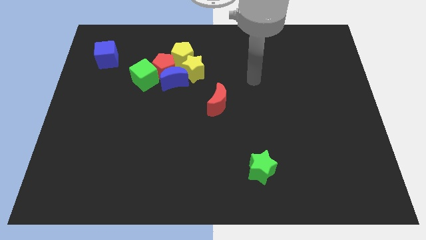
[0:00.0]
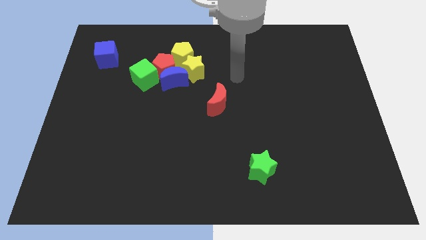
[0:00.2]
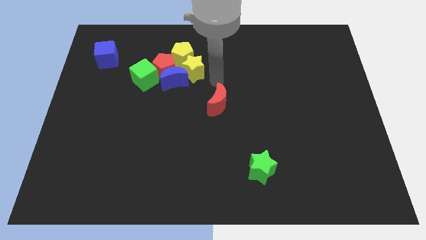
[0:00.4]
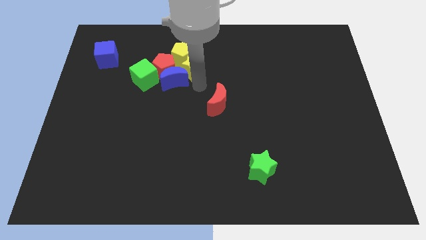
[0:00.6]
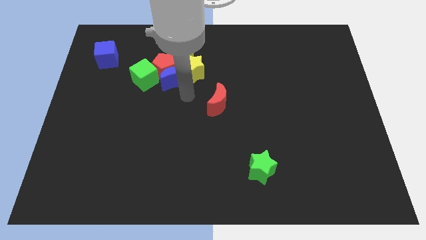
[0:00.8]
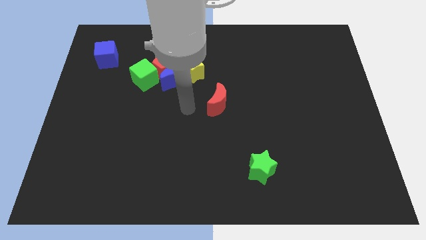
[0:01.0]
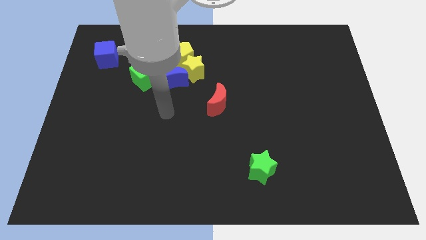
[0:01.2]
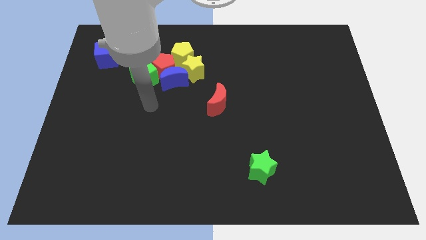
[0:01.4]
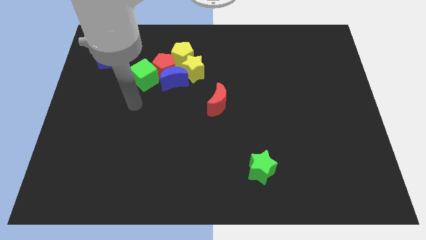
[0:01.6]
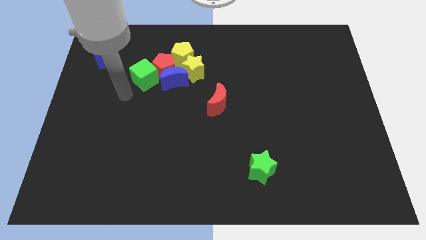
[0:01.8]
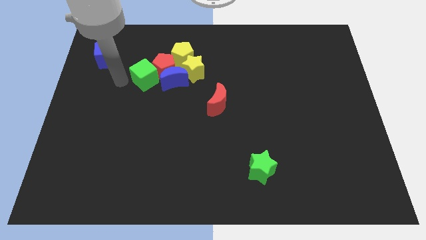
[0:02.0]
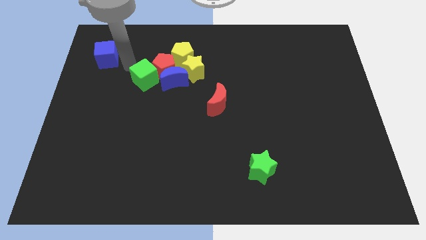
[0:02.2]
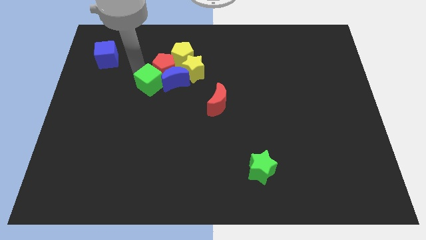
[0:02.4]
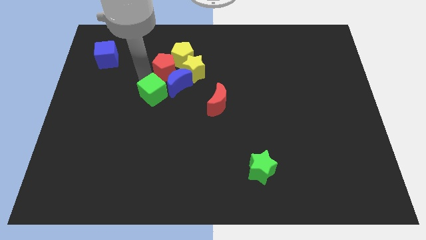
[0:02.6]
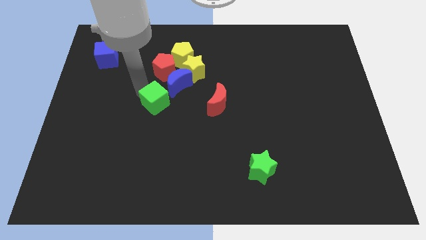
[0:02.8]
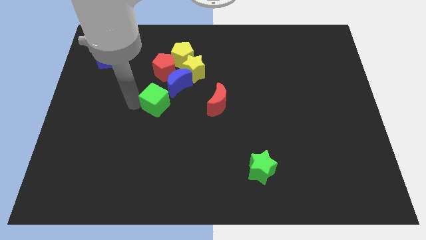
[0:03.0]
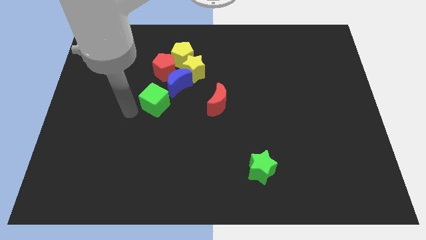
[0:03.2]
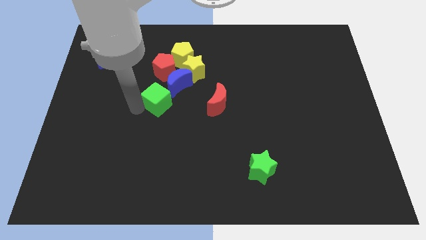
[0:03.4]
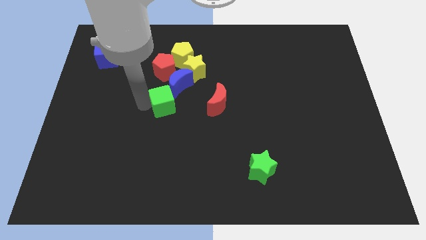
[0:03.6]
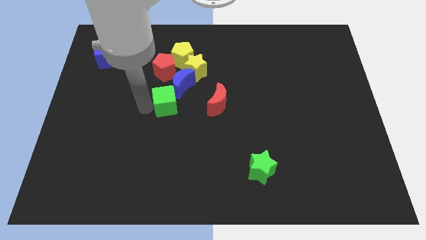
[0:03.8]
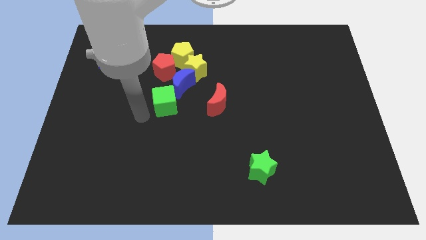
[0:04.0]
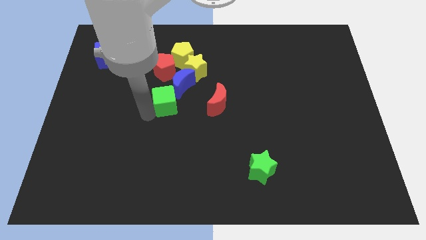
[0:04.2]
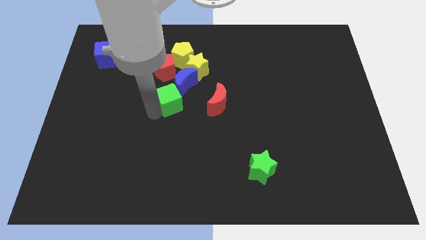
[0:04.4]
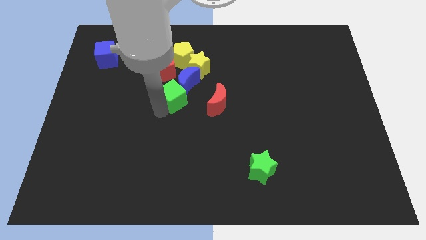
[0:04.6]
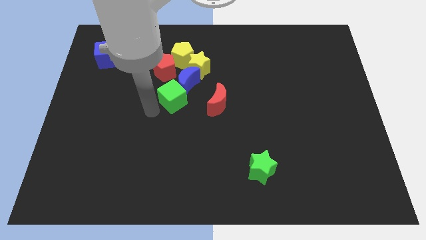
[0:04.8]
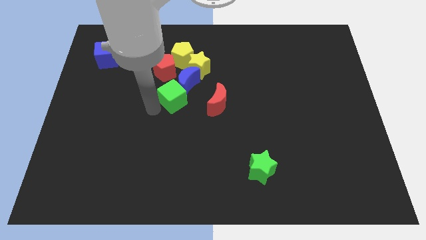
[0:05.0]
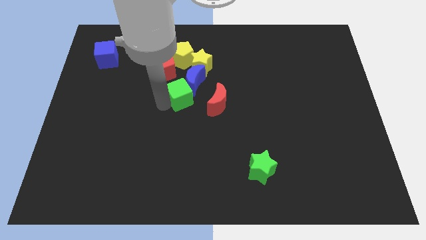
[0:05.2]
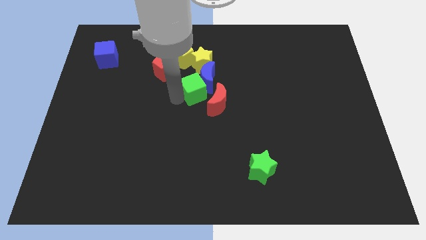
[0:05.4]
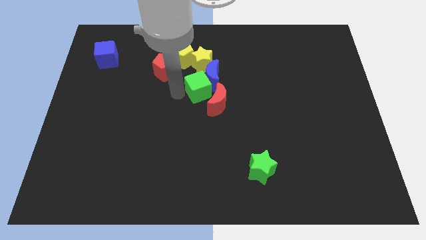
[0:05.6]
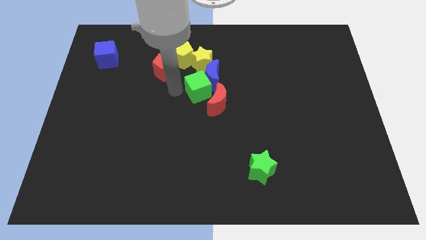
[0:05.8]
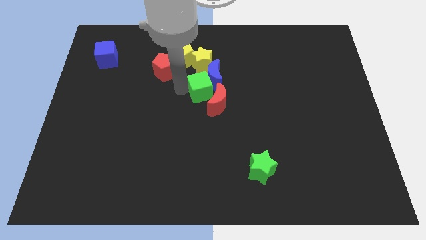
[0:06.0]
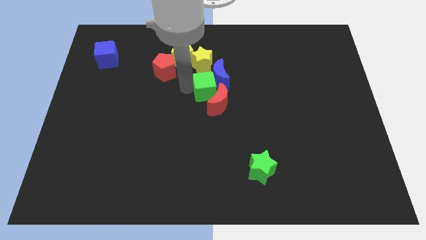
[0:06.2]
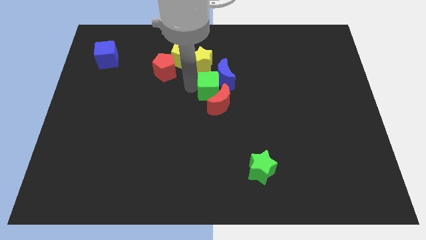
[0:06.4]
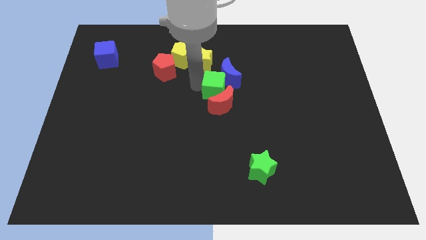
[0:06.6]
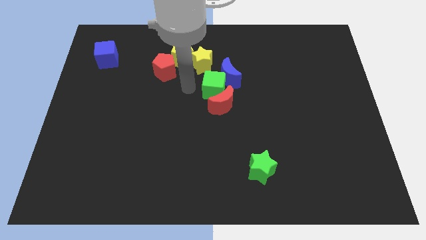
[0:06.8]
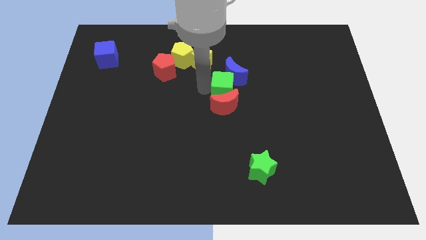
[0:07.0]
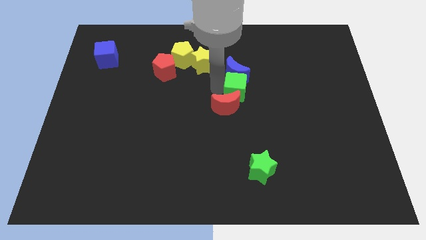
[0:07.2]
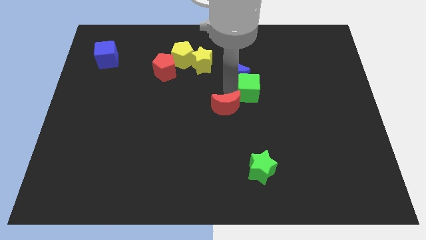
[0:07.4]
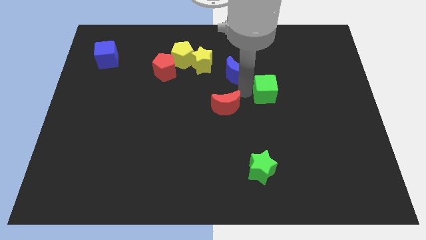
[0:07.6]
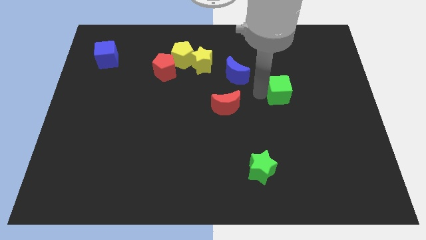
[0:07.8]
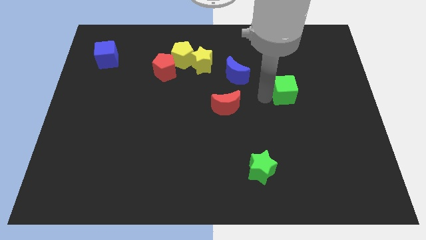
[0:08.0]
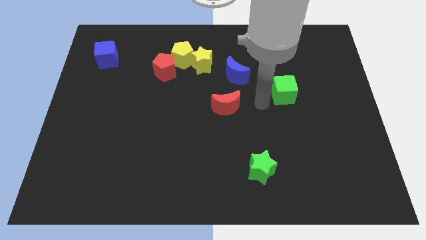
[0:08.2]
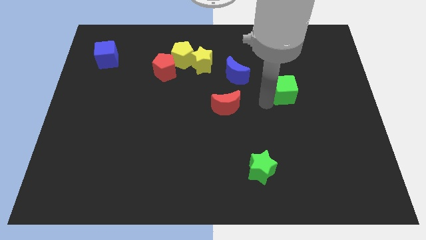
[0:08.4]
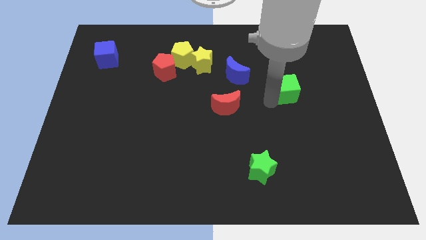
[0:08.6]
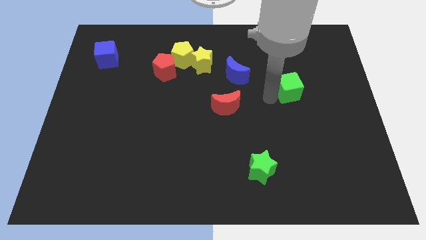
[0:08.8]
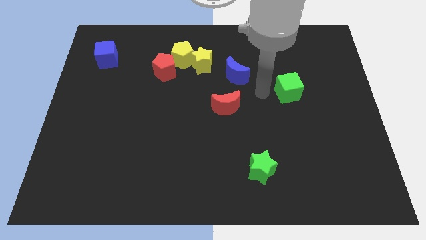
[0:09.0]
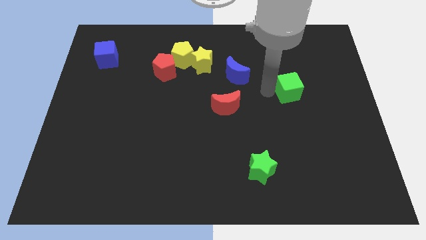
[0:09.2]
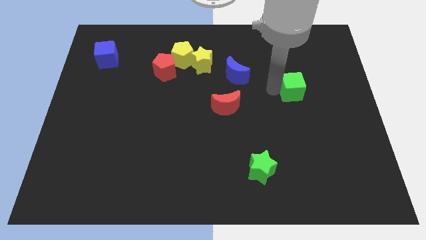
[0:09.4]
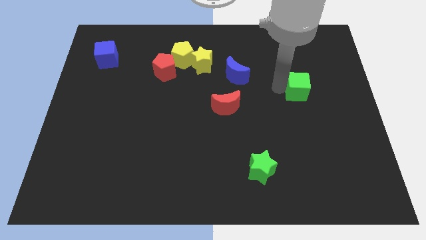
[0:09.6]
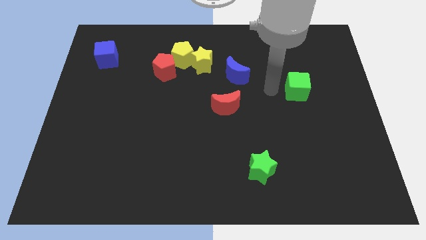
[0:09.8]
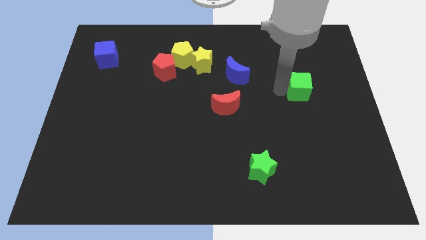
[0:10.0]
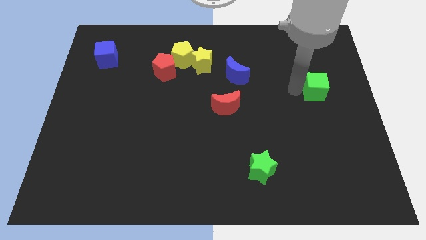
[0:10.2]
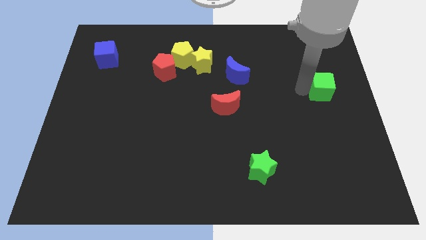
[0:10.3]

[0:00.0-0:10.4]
slide the green cube to the right side of the board

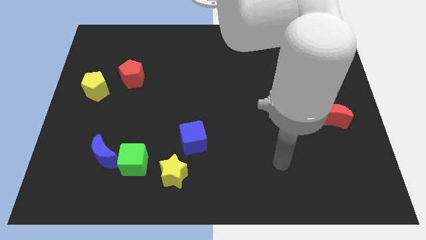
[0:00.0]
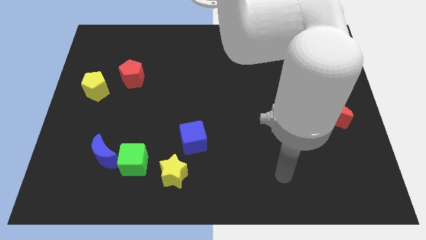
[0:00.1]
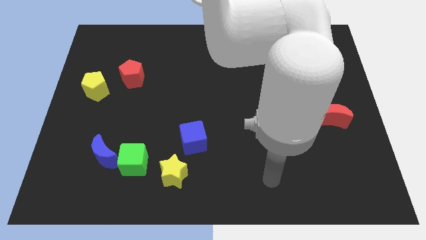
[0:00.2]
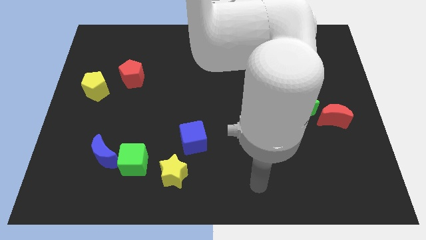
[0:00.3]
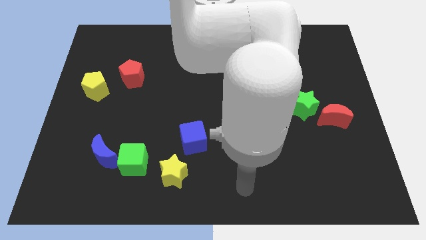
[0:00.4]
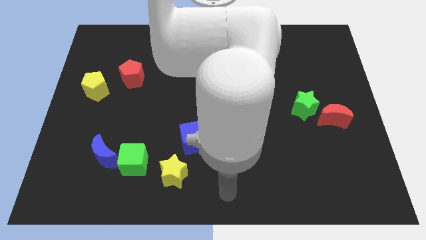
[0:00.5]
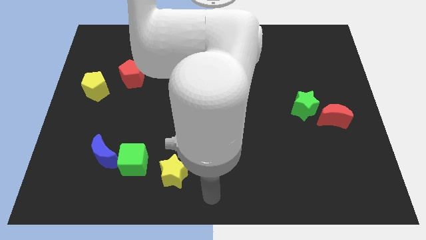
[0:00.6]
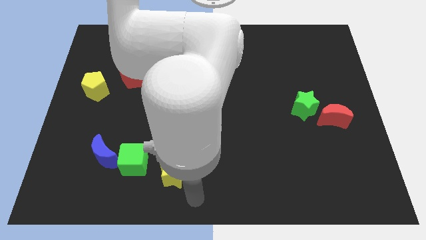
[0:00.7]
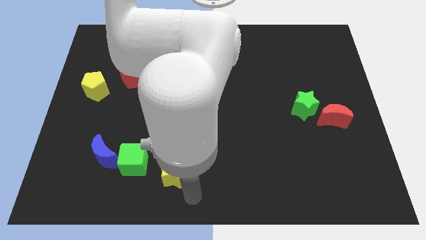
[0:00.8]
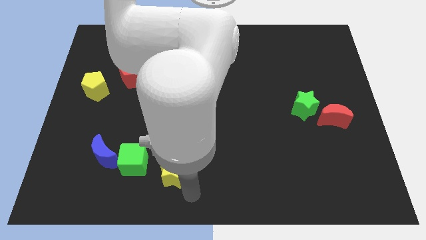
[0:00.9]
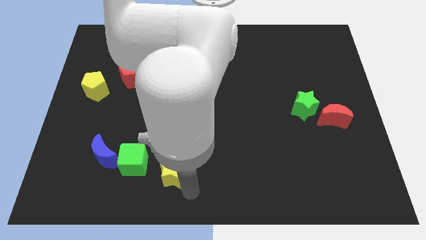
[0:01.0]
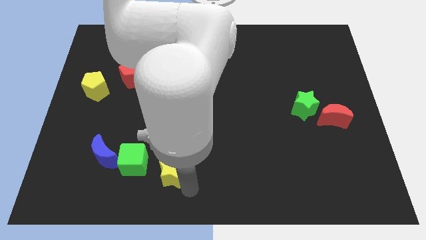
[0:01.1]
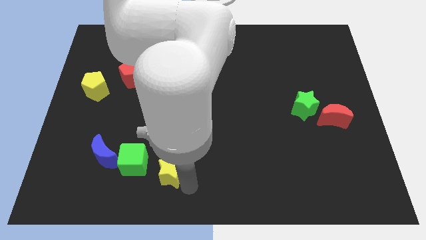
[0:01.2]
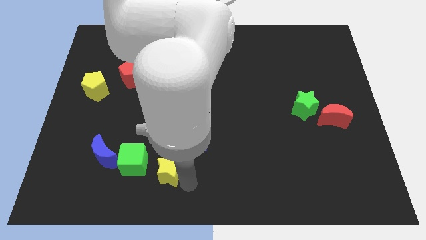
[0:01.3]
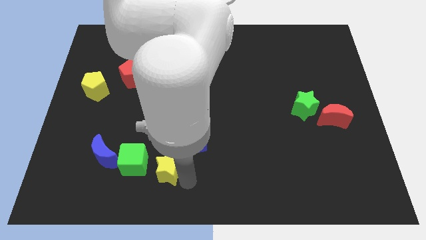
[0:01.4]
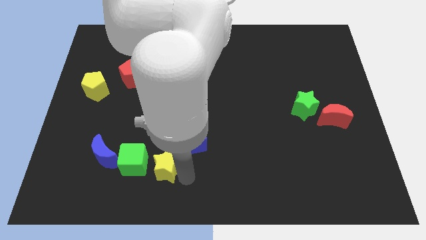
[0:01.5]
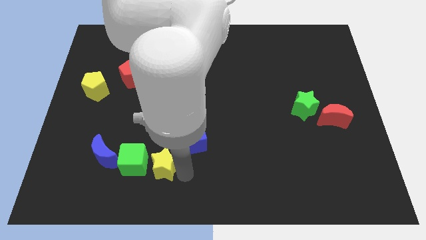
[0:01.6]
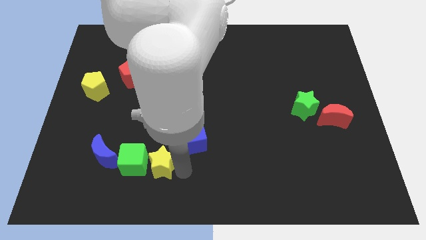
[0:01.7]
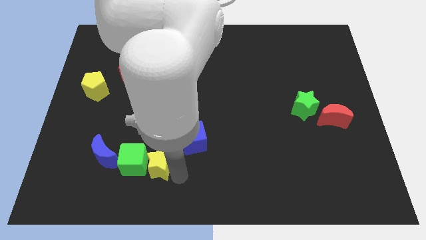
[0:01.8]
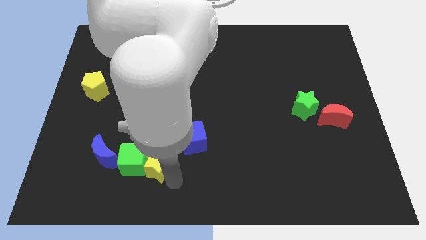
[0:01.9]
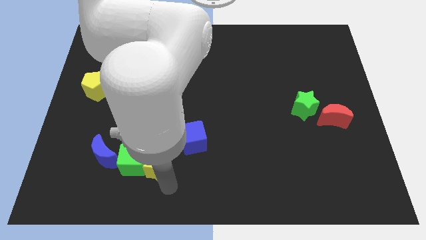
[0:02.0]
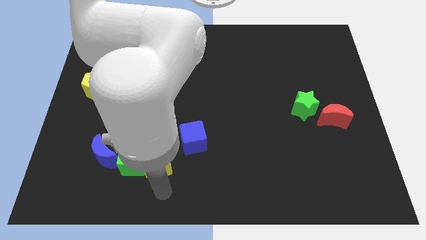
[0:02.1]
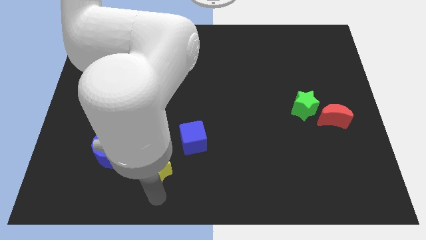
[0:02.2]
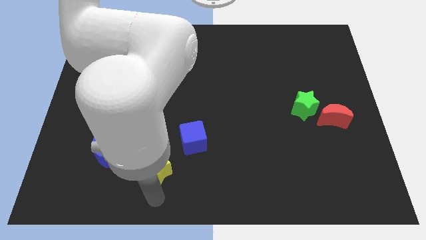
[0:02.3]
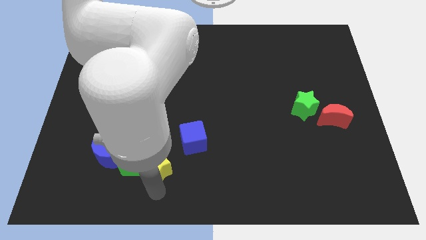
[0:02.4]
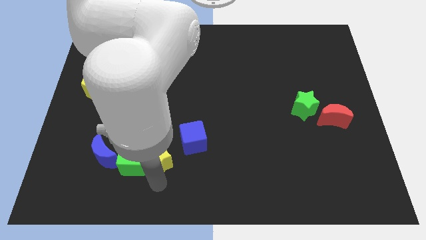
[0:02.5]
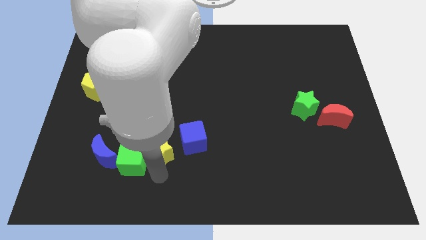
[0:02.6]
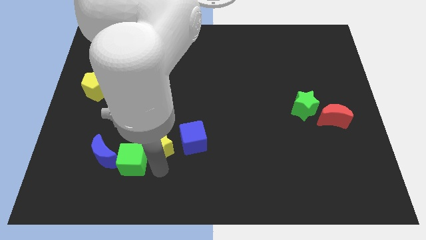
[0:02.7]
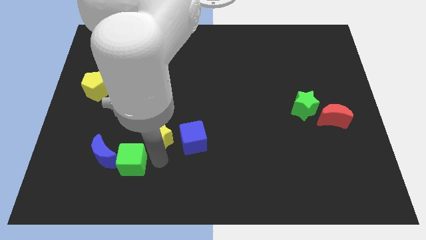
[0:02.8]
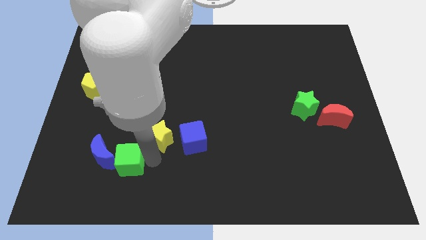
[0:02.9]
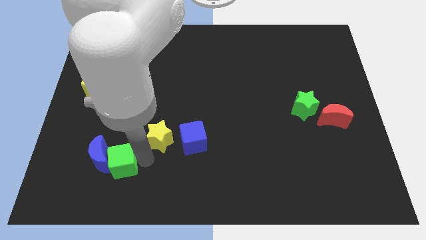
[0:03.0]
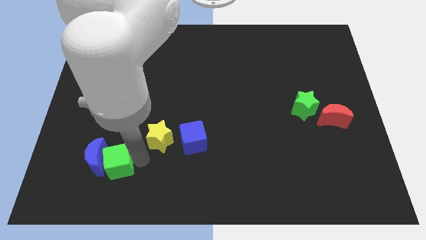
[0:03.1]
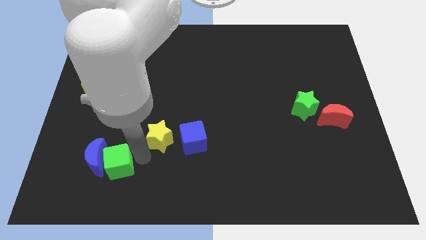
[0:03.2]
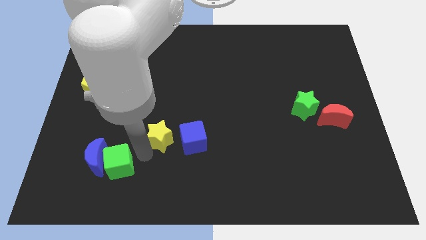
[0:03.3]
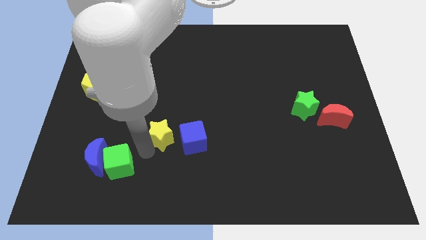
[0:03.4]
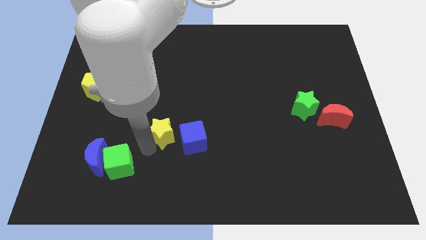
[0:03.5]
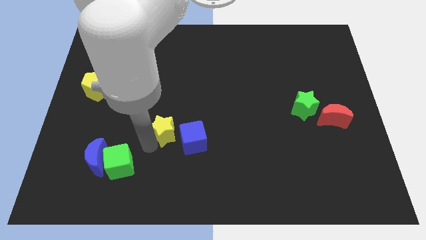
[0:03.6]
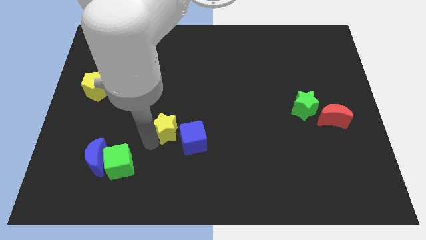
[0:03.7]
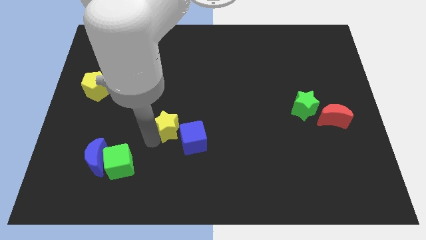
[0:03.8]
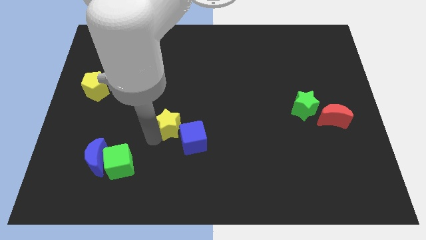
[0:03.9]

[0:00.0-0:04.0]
move the yellow star to the center of the board
